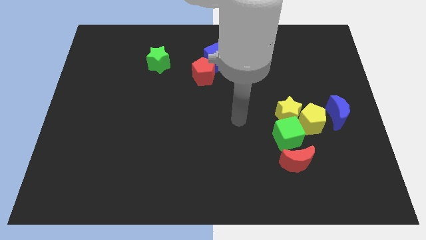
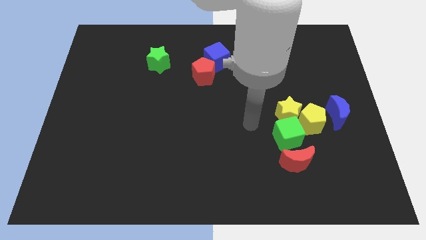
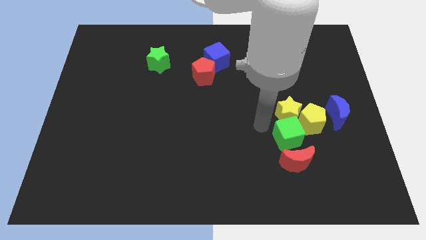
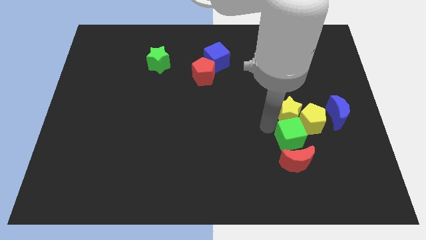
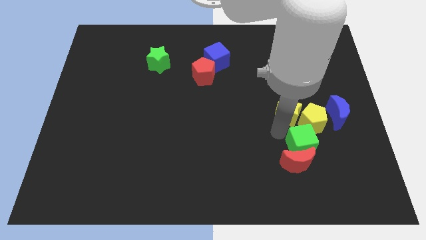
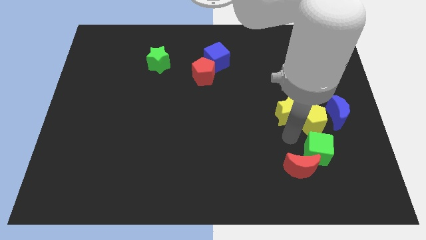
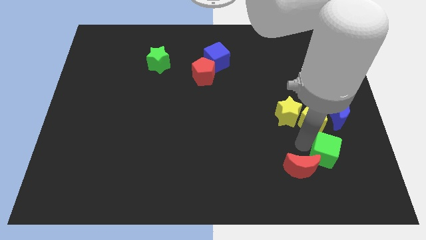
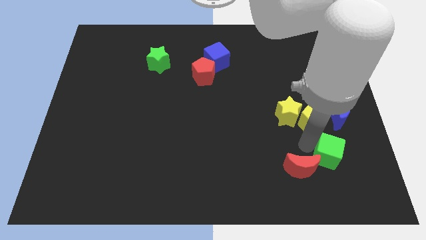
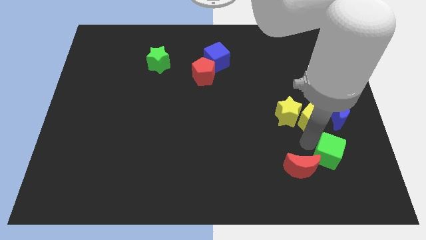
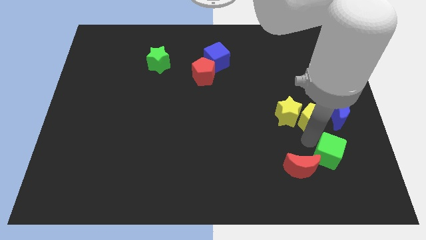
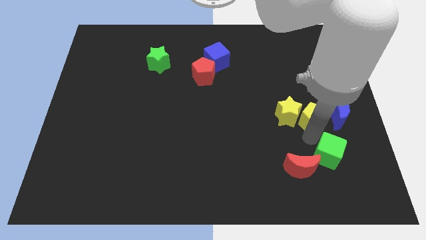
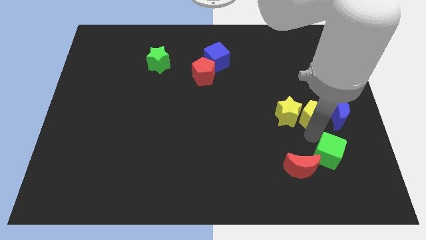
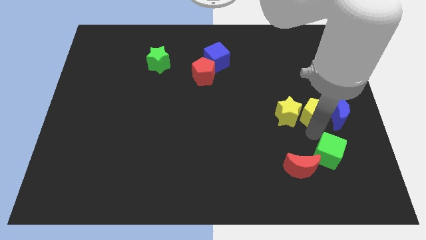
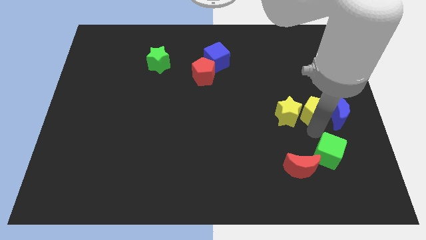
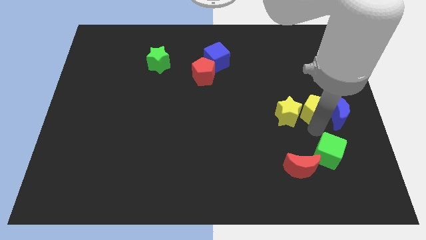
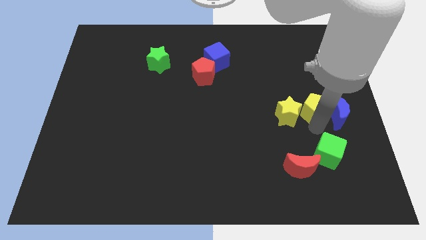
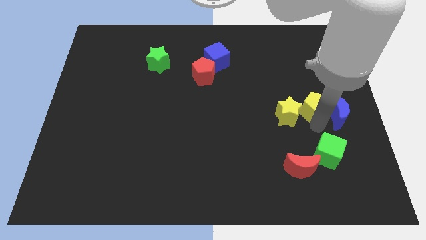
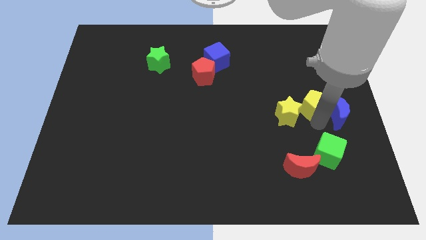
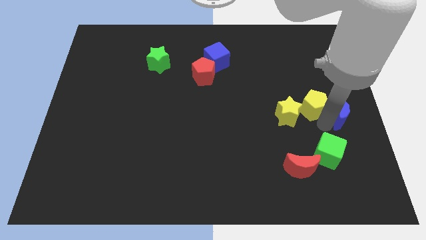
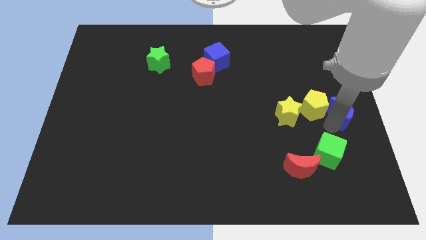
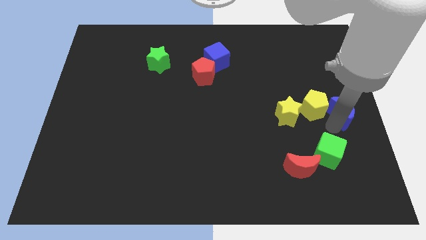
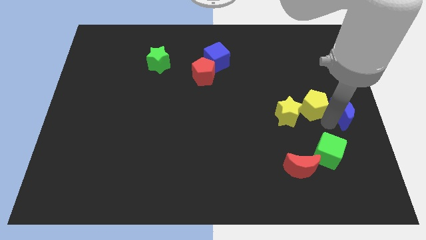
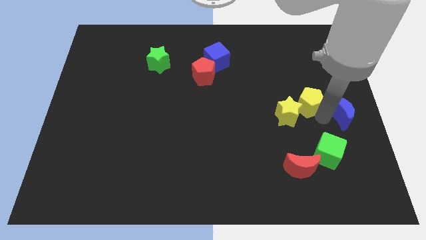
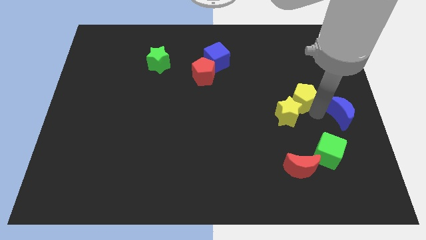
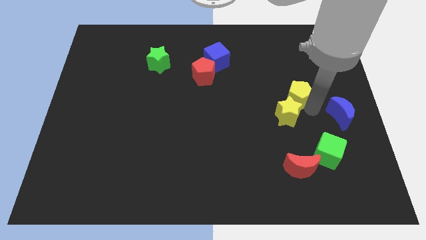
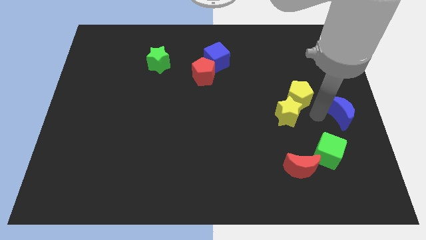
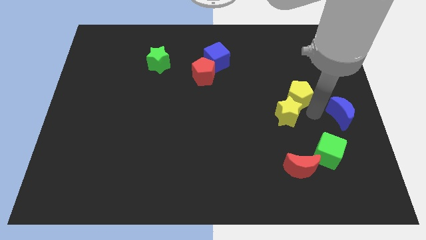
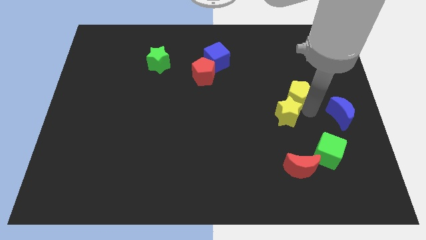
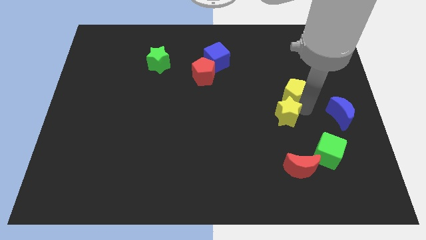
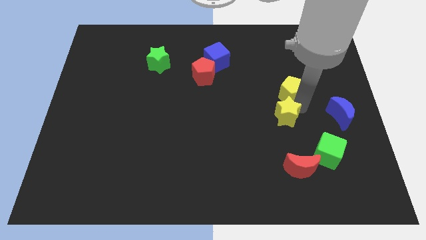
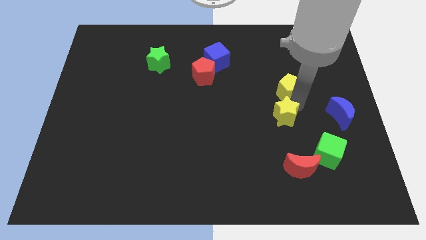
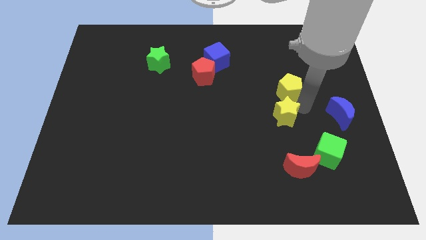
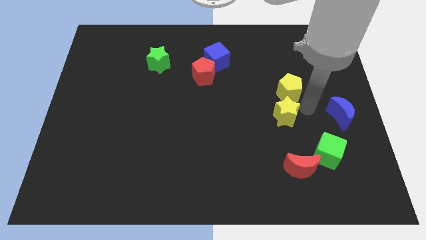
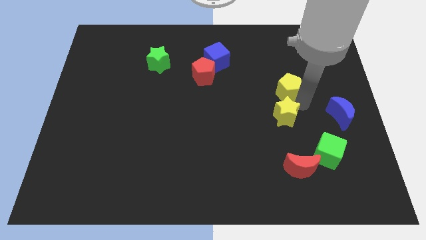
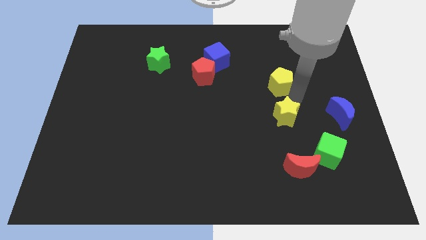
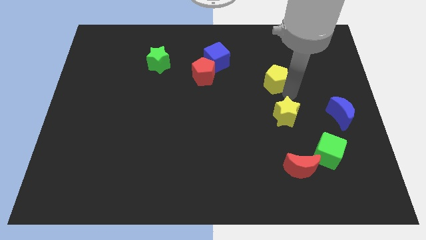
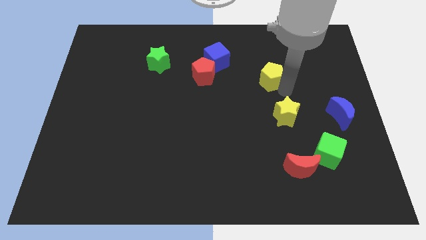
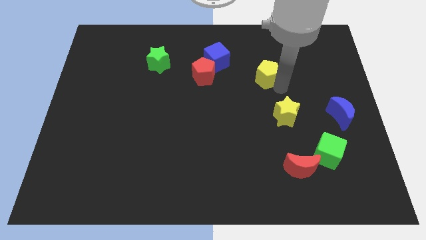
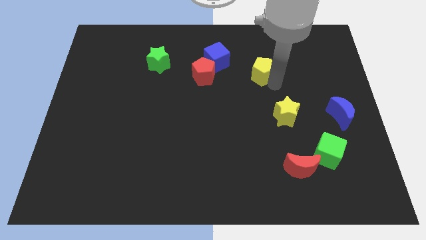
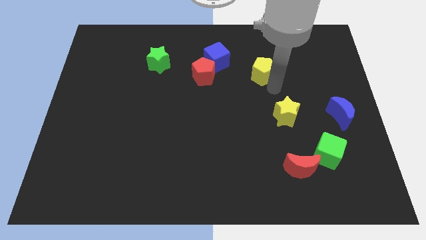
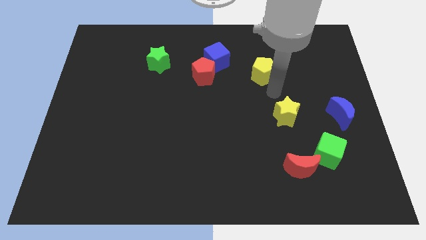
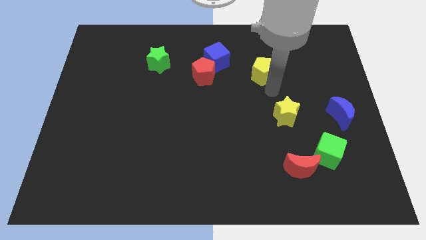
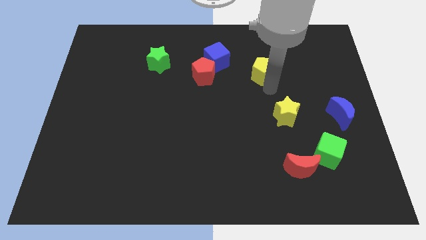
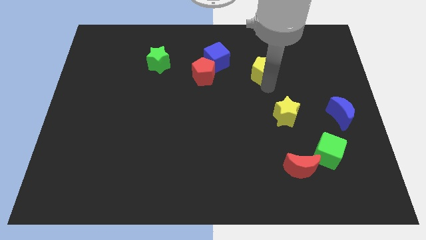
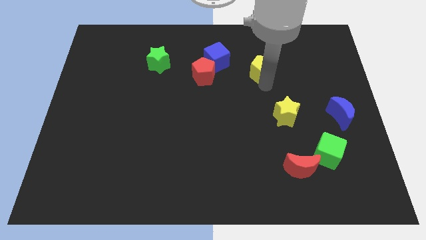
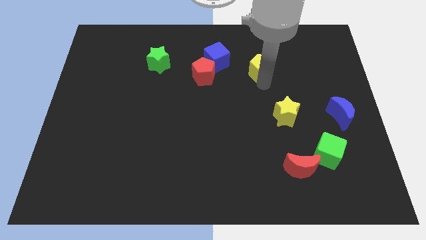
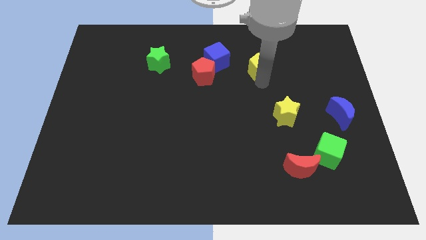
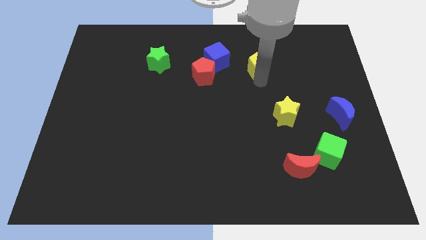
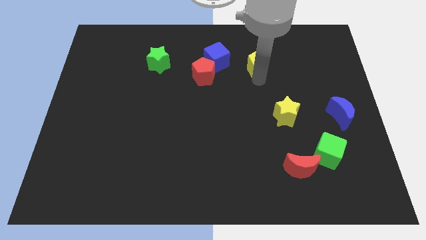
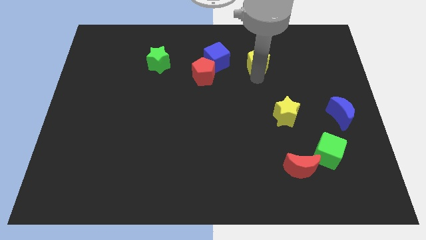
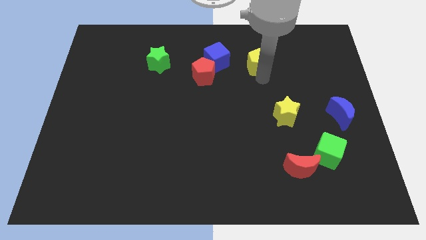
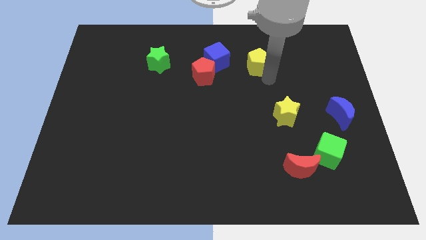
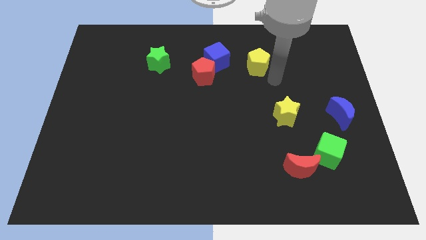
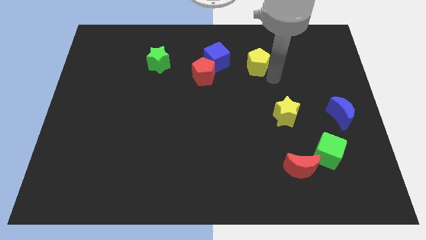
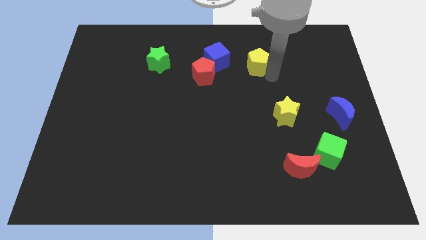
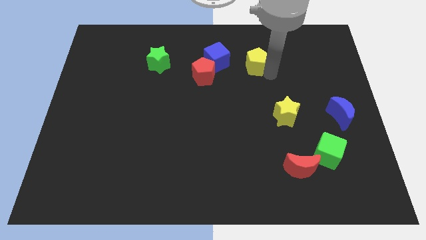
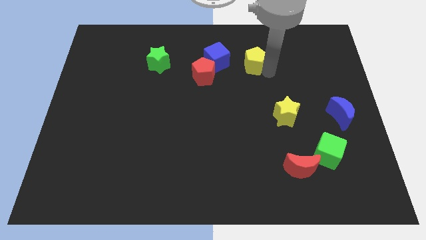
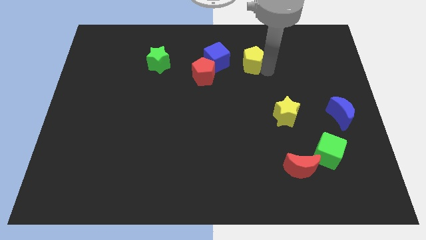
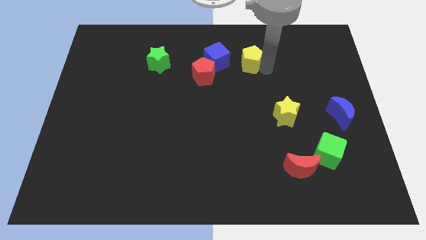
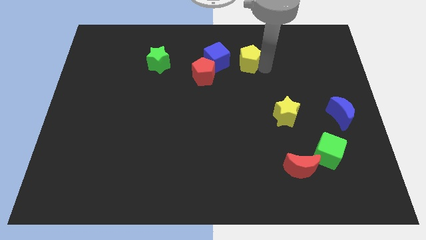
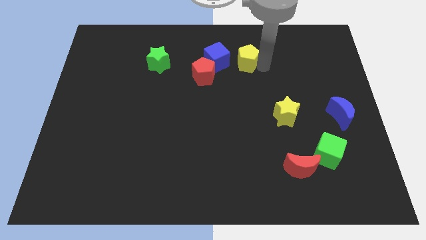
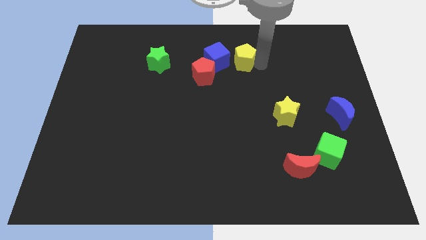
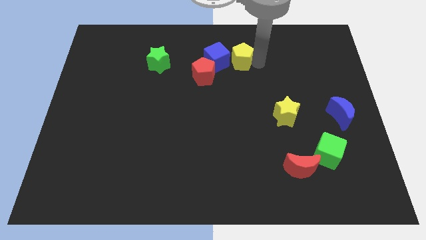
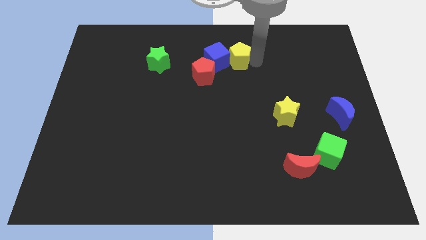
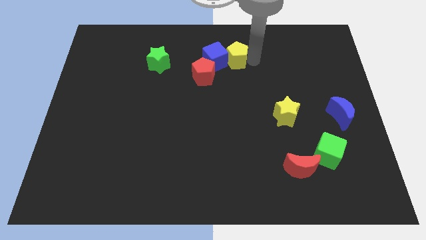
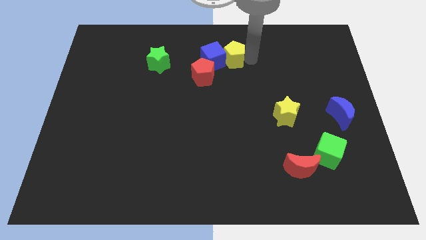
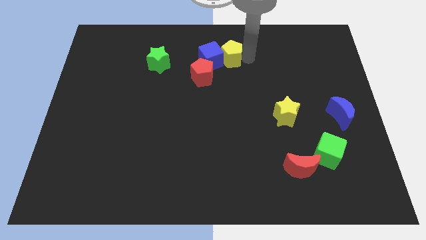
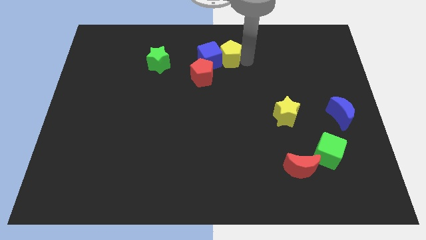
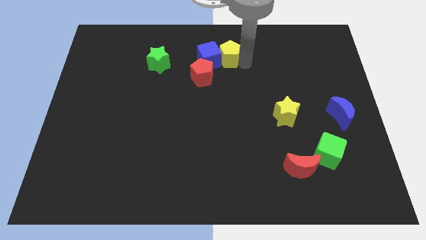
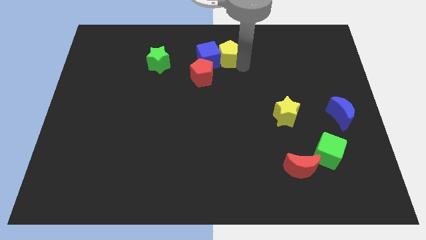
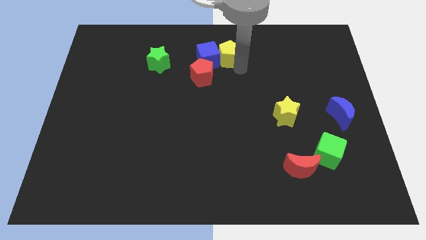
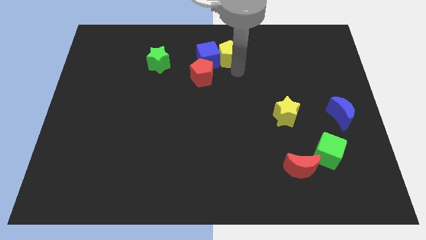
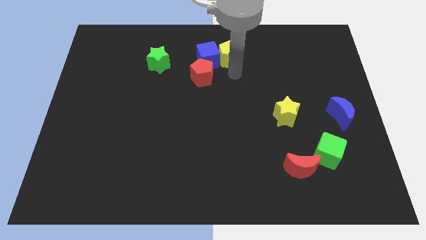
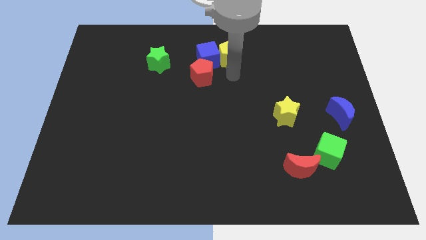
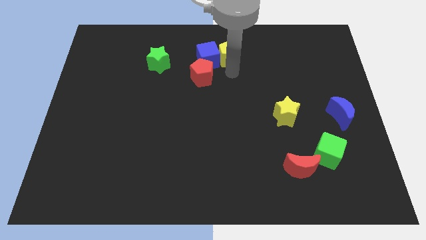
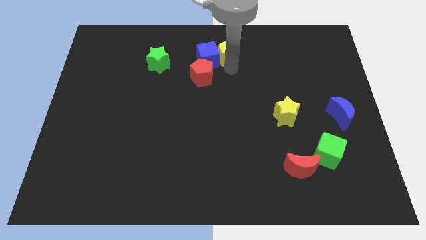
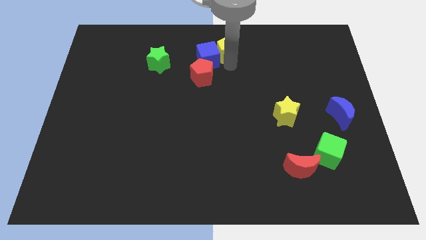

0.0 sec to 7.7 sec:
push the yellow pentagon to the towards your base

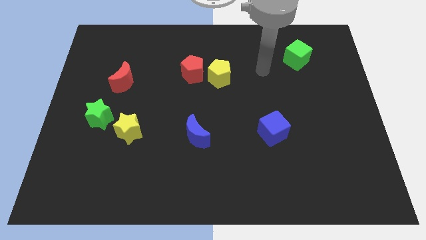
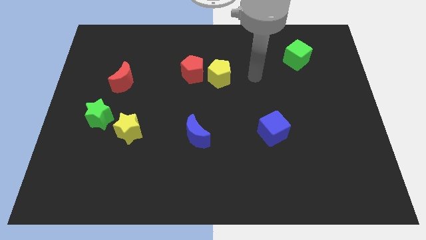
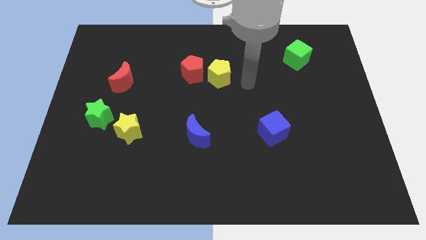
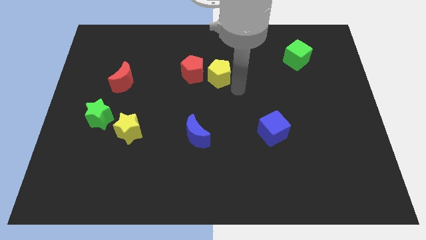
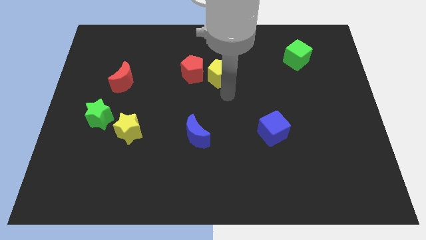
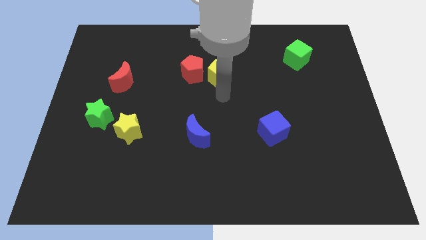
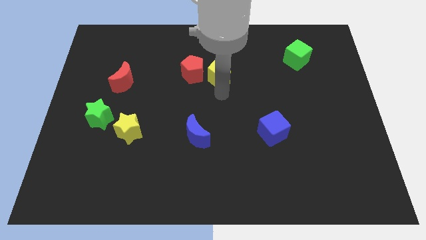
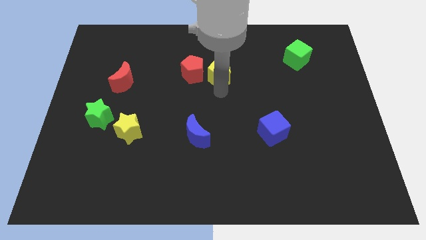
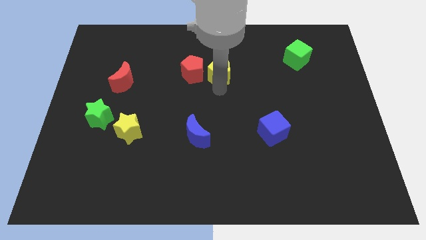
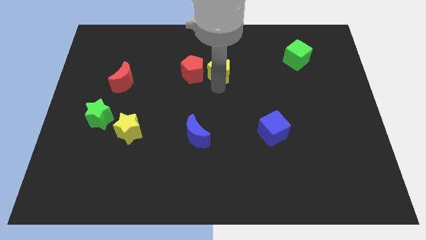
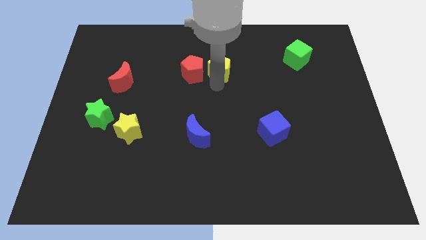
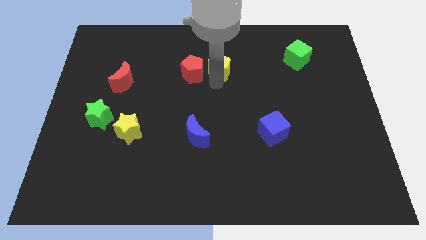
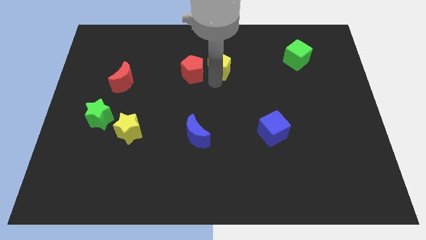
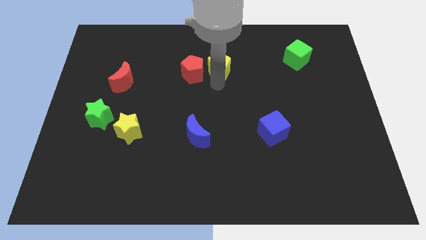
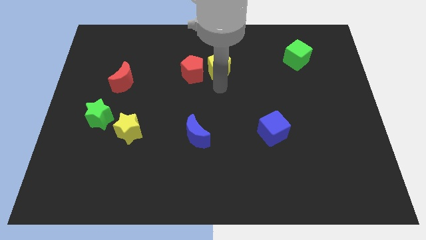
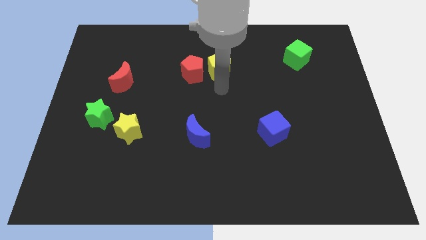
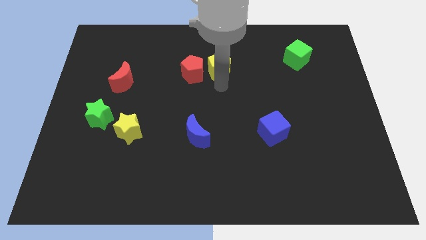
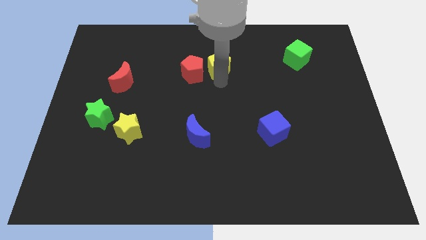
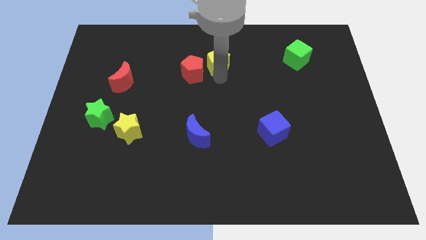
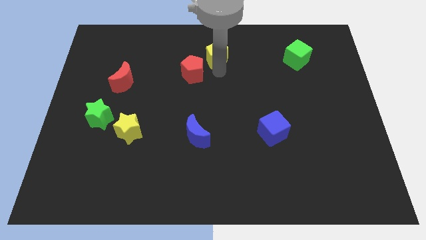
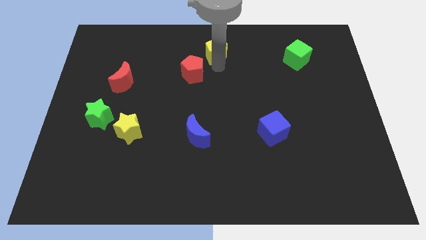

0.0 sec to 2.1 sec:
slide the yellow pentagon to the top
